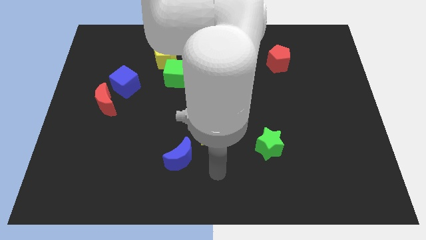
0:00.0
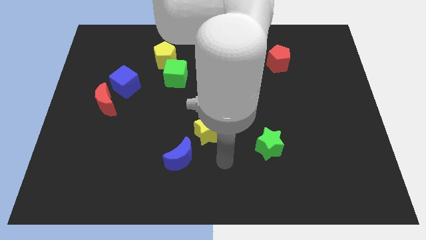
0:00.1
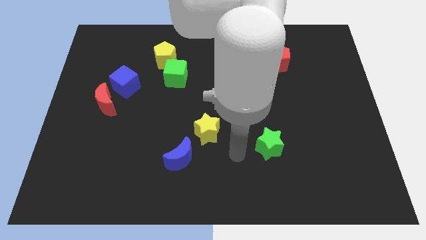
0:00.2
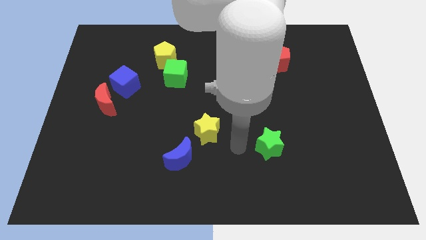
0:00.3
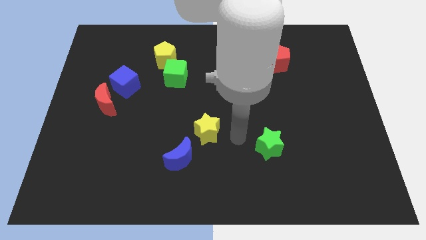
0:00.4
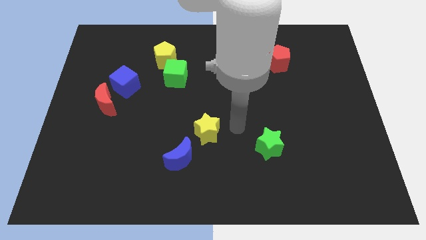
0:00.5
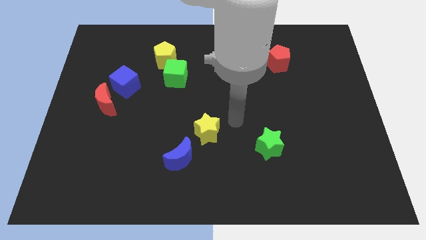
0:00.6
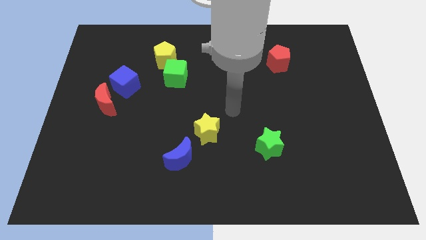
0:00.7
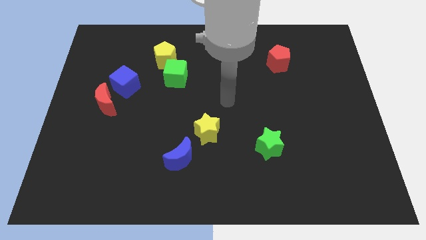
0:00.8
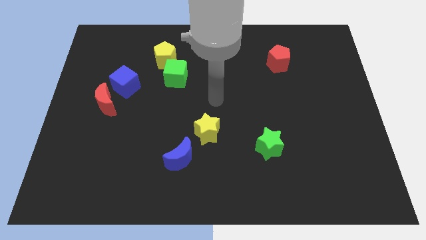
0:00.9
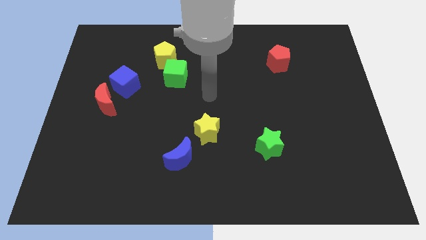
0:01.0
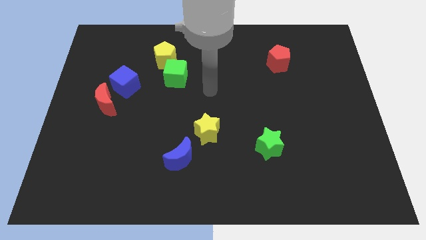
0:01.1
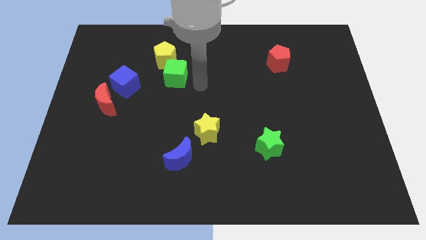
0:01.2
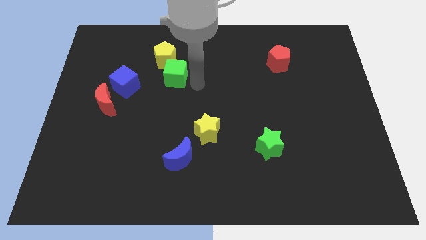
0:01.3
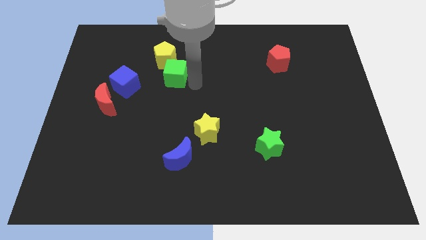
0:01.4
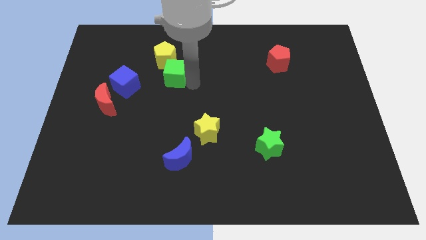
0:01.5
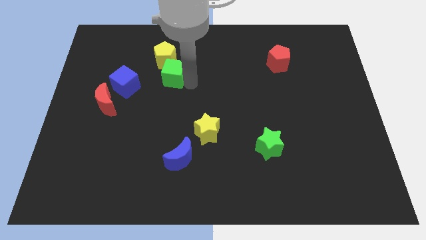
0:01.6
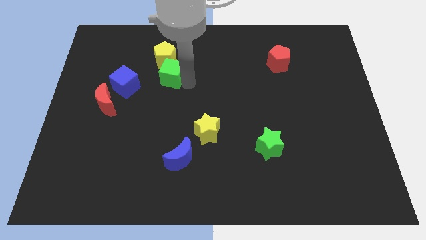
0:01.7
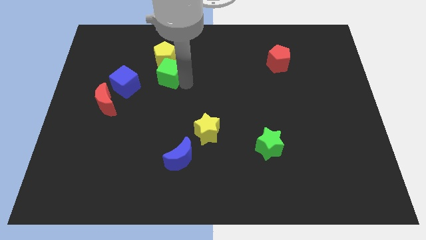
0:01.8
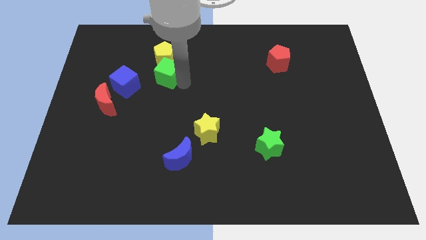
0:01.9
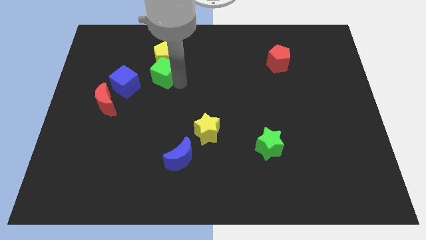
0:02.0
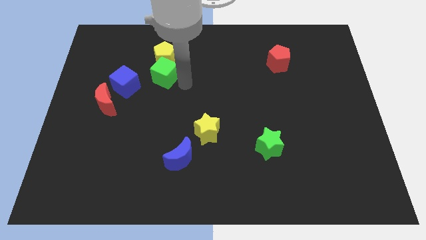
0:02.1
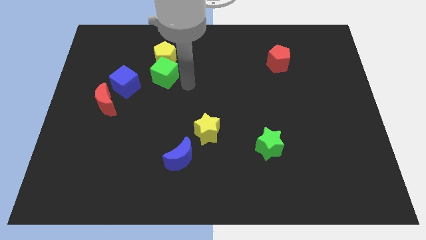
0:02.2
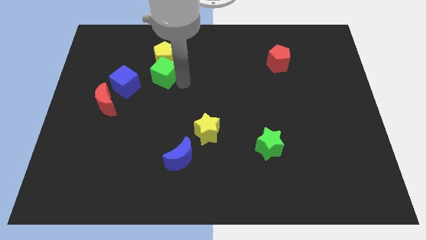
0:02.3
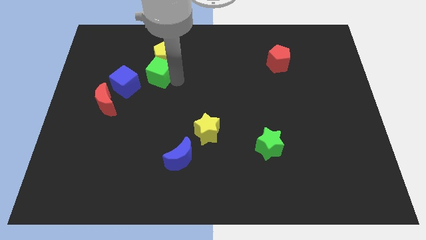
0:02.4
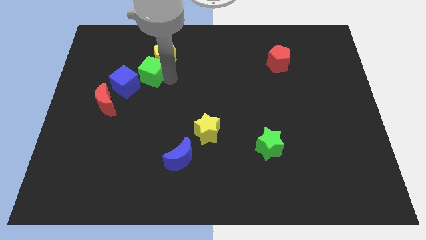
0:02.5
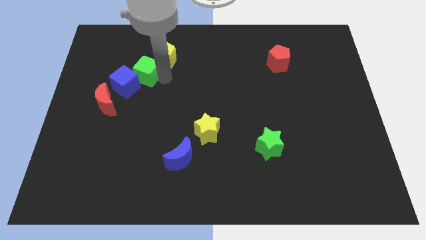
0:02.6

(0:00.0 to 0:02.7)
push the green cube a little bit left

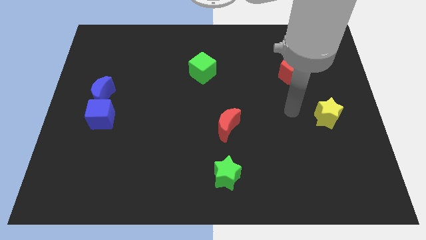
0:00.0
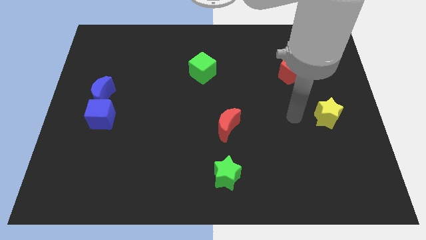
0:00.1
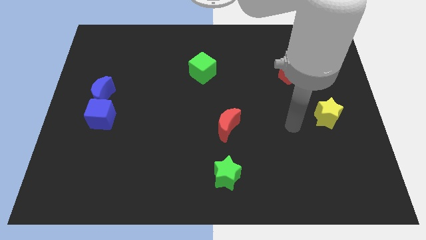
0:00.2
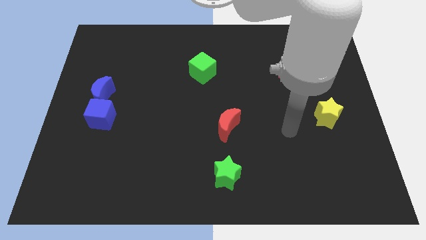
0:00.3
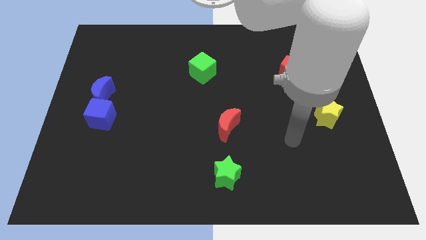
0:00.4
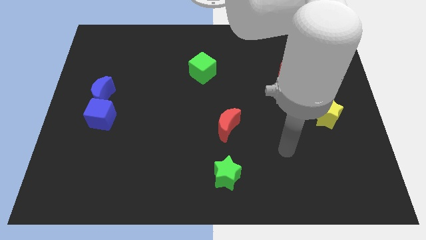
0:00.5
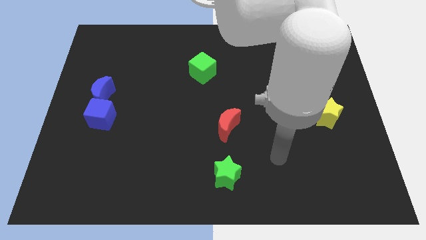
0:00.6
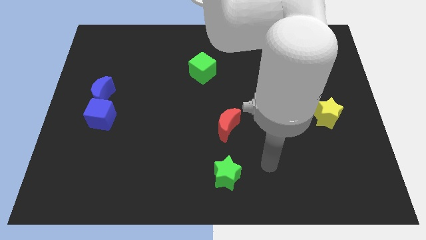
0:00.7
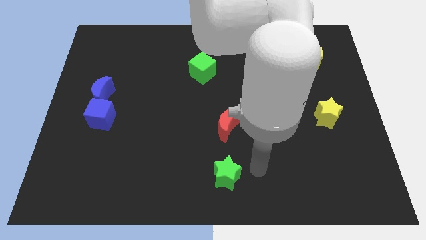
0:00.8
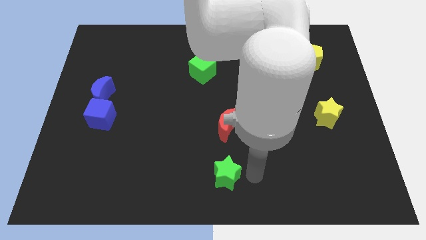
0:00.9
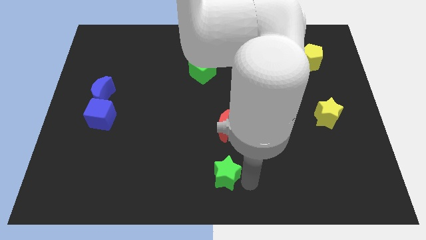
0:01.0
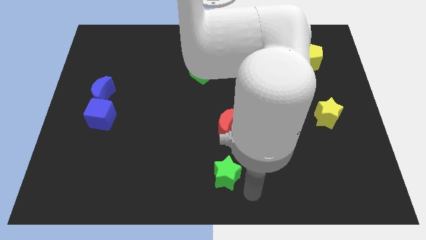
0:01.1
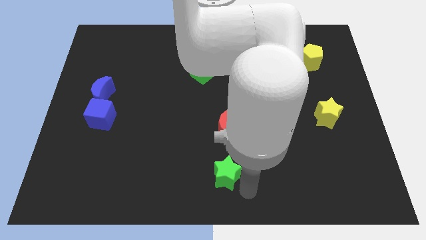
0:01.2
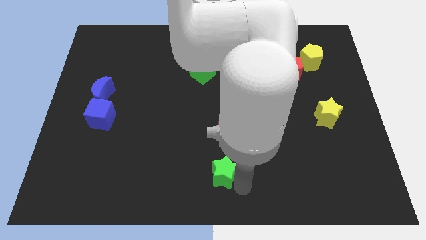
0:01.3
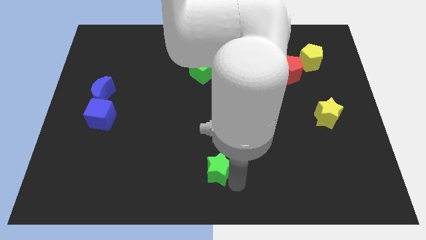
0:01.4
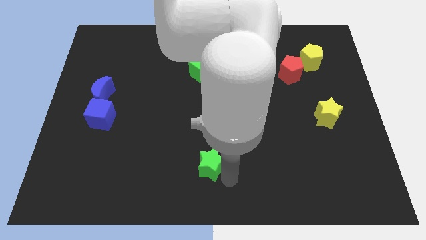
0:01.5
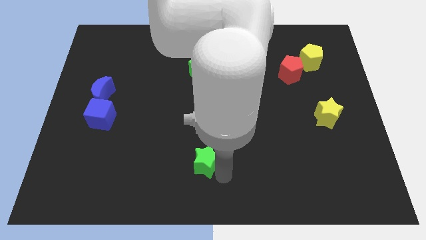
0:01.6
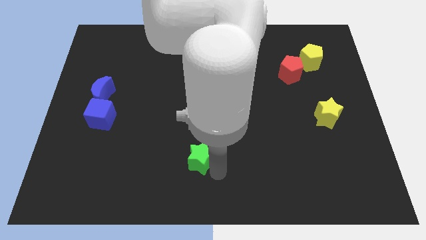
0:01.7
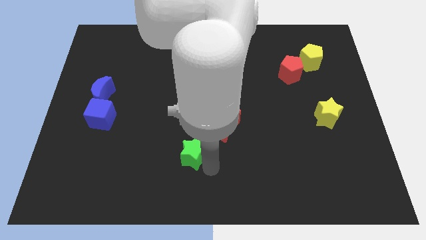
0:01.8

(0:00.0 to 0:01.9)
slide the green star up and to the left a little bit

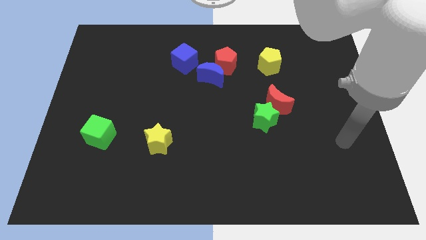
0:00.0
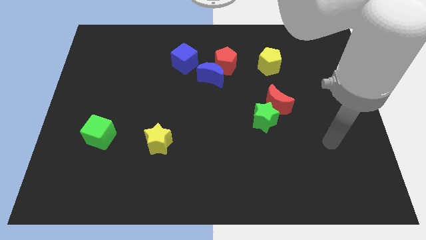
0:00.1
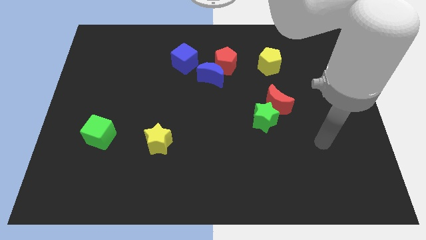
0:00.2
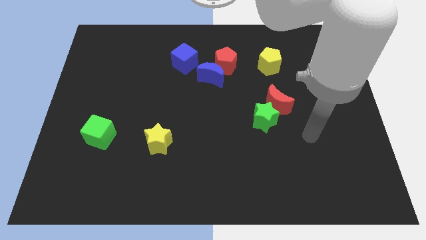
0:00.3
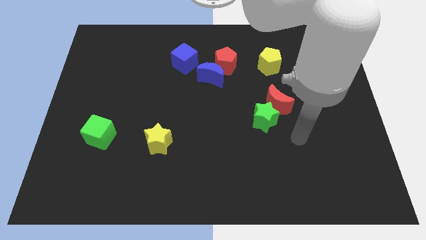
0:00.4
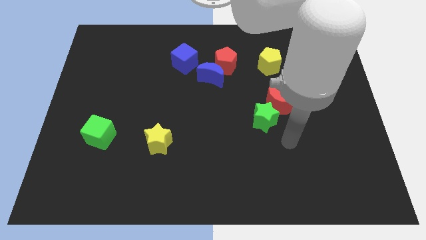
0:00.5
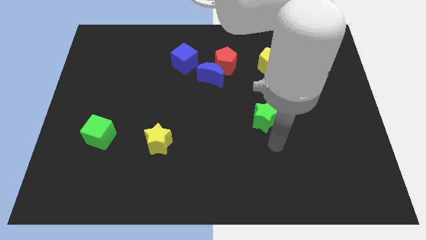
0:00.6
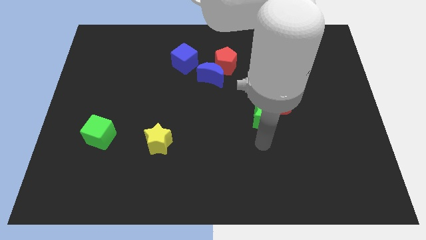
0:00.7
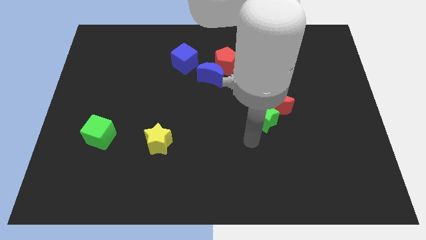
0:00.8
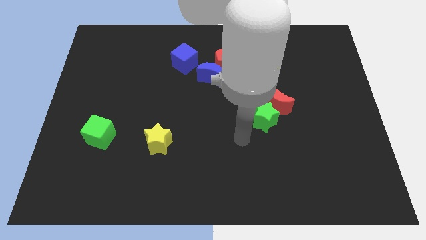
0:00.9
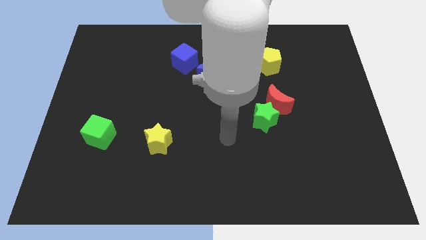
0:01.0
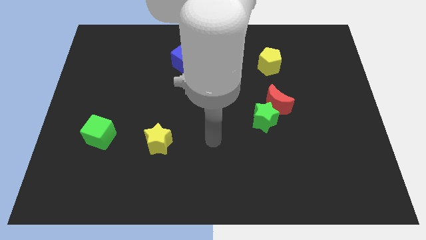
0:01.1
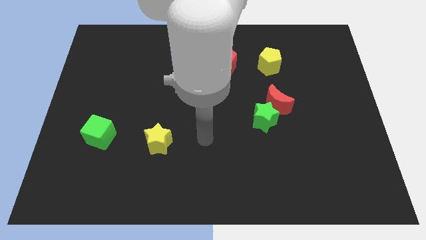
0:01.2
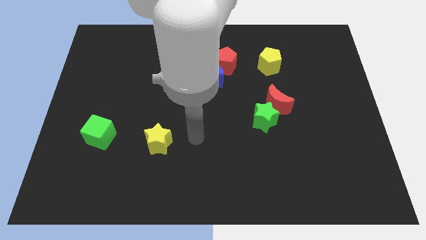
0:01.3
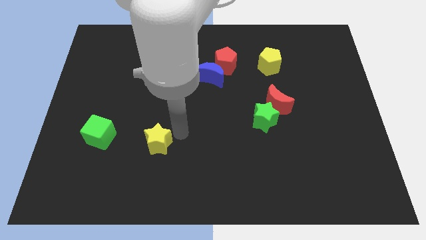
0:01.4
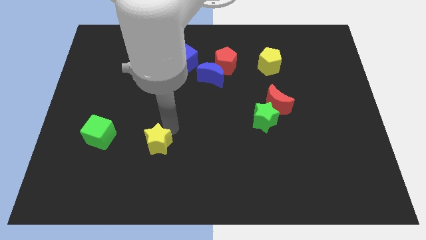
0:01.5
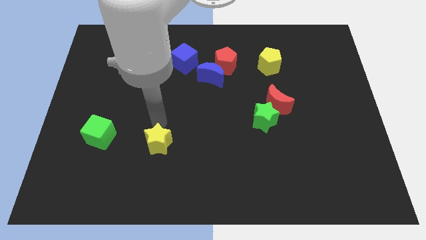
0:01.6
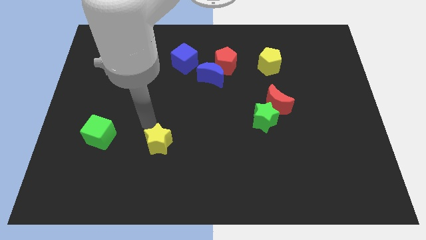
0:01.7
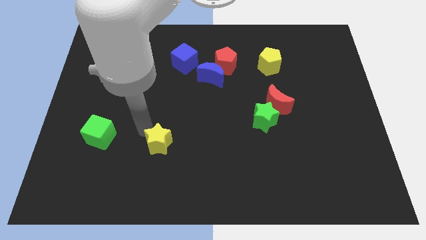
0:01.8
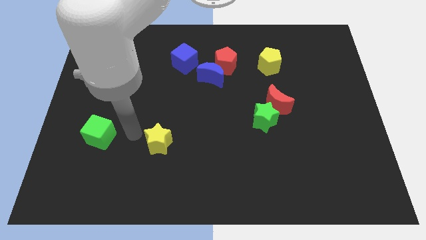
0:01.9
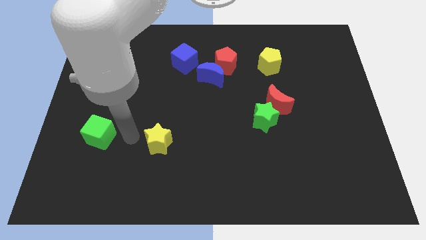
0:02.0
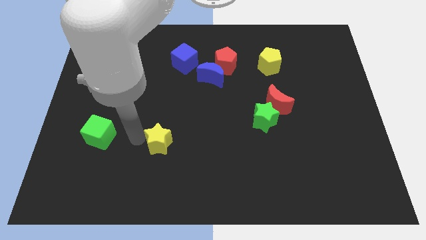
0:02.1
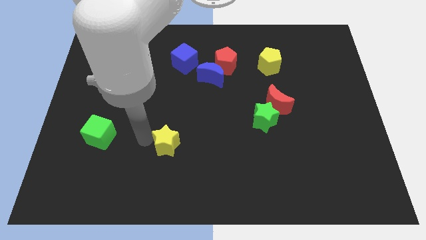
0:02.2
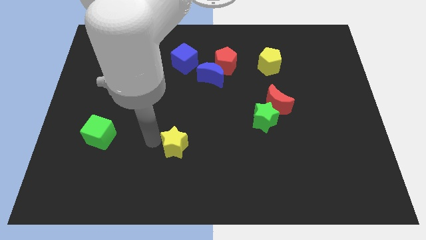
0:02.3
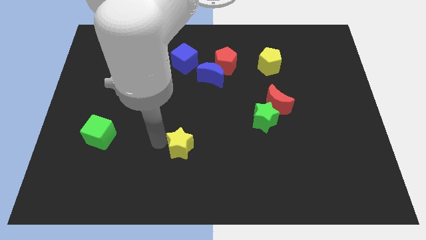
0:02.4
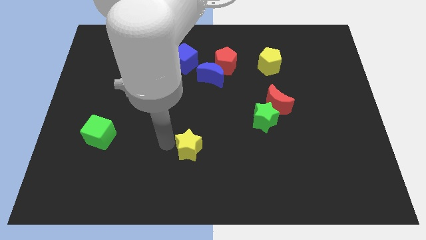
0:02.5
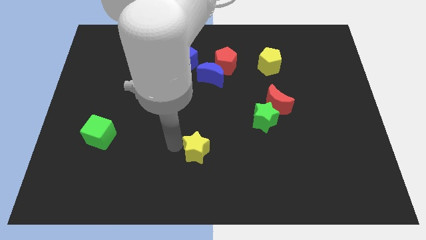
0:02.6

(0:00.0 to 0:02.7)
slide the yellow star somewhat to the right

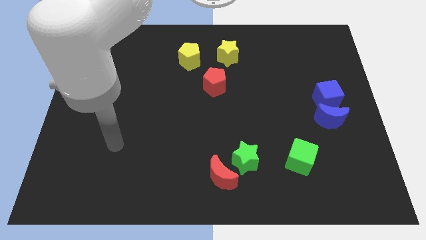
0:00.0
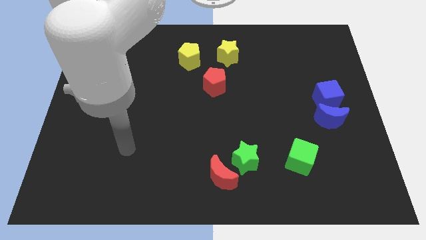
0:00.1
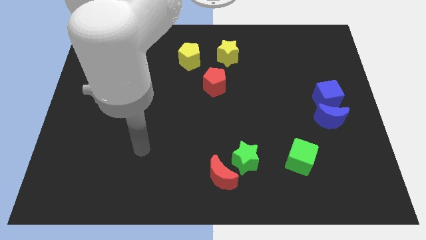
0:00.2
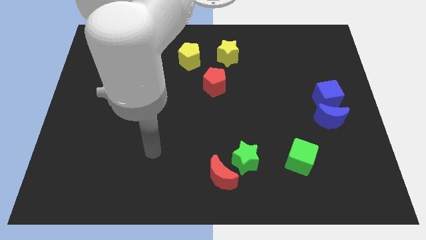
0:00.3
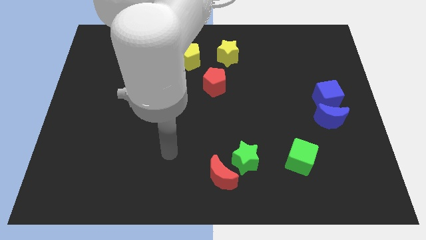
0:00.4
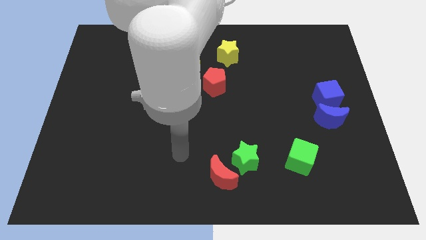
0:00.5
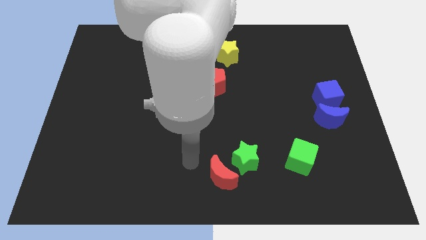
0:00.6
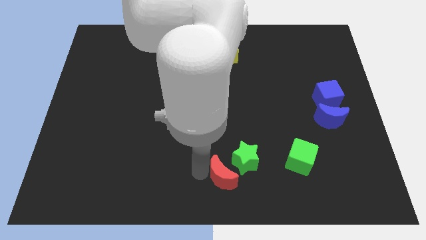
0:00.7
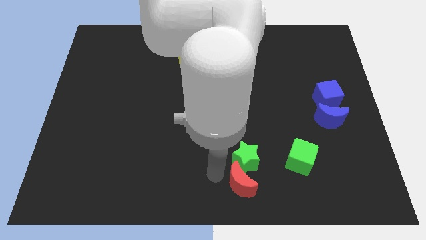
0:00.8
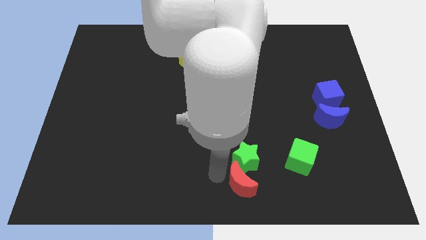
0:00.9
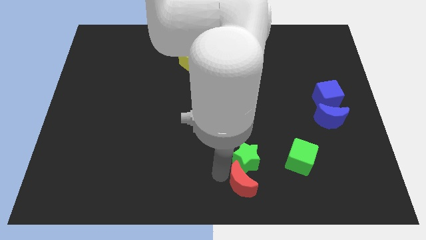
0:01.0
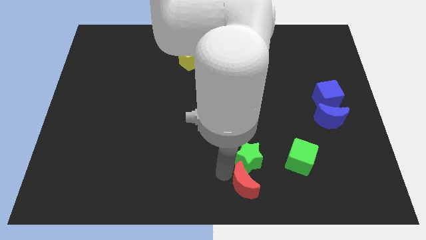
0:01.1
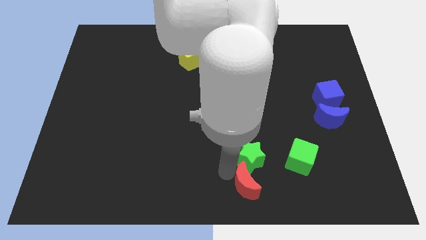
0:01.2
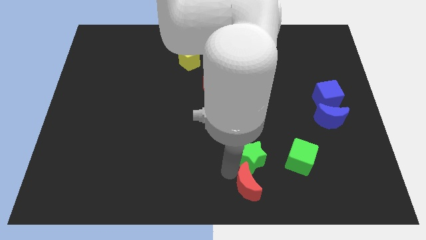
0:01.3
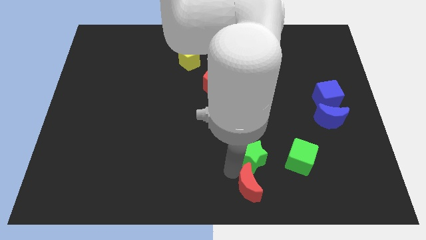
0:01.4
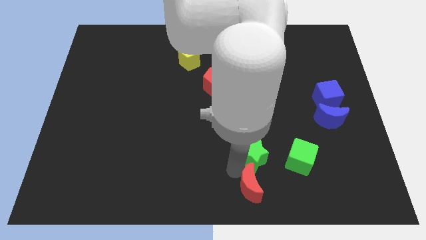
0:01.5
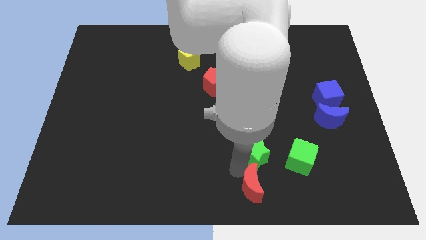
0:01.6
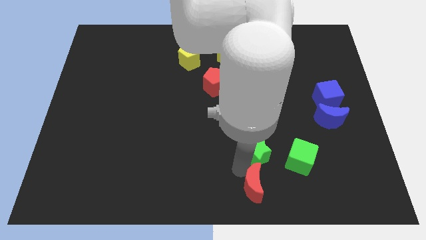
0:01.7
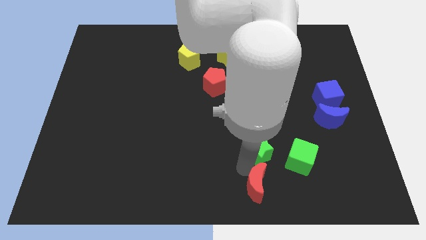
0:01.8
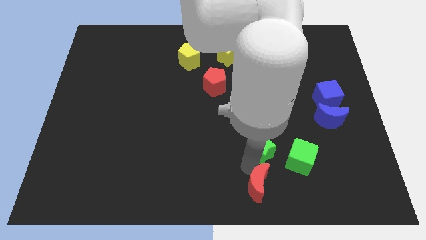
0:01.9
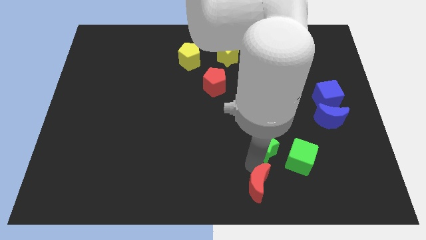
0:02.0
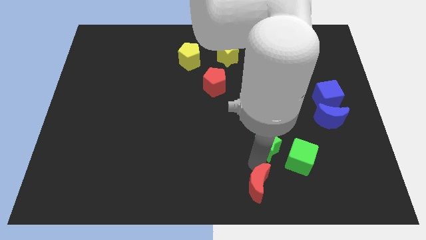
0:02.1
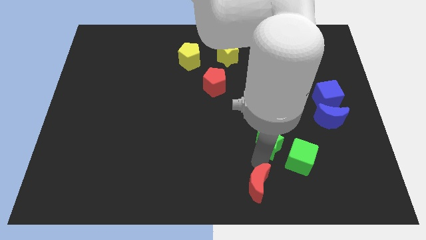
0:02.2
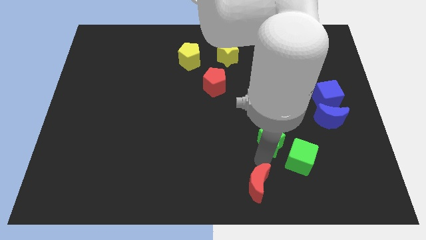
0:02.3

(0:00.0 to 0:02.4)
move the green star a little bit upwards and right diagonally
